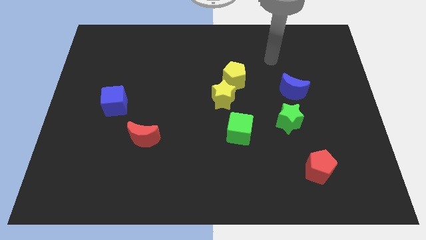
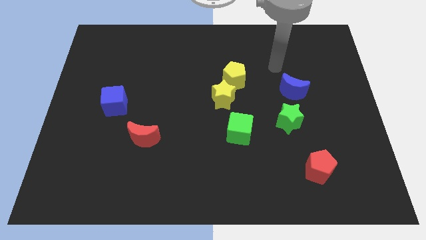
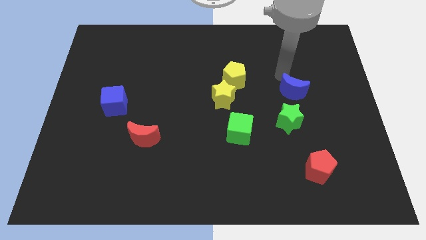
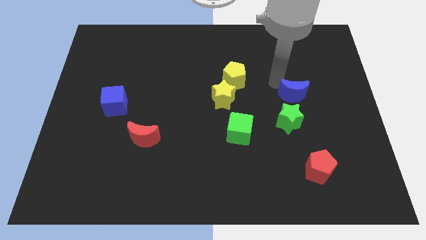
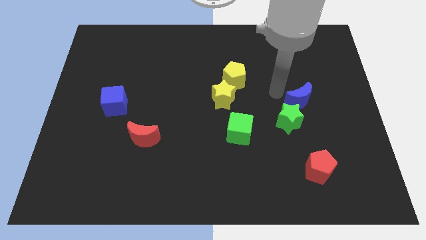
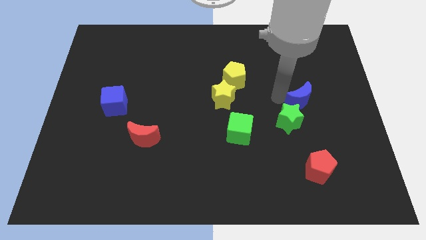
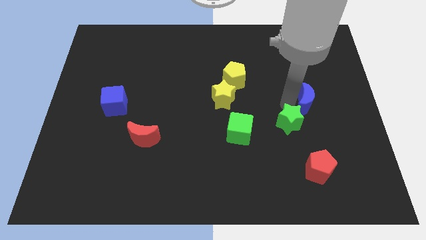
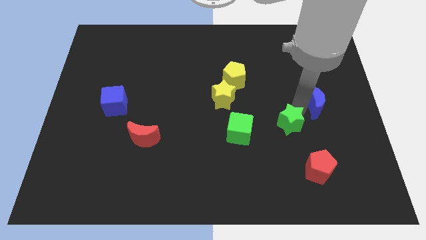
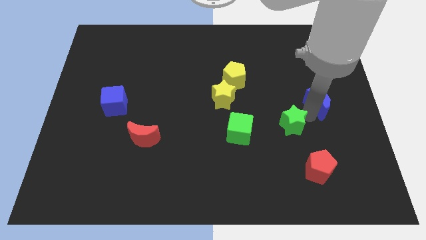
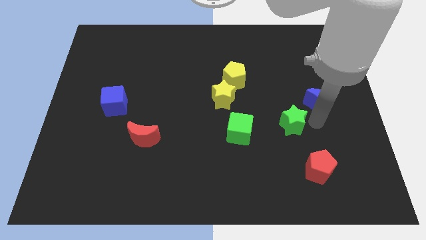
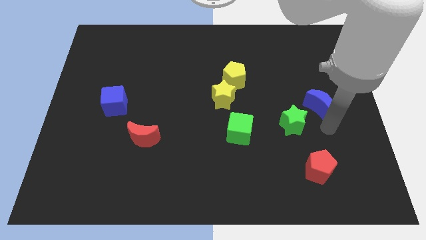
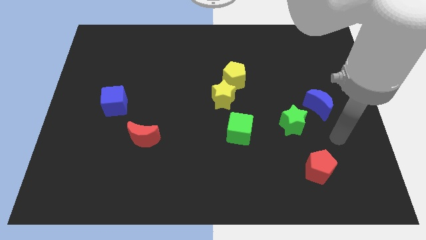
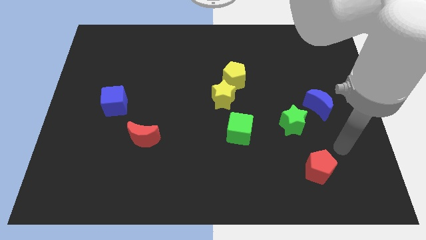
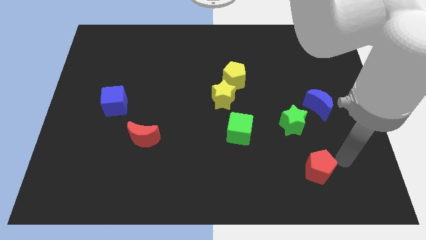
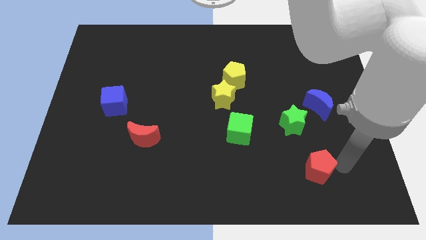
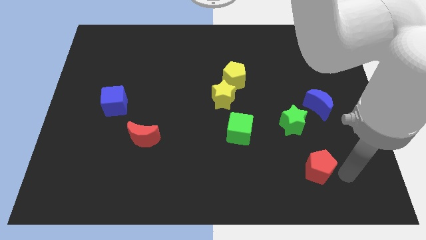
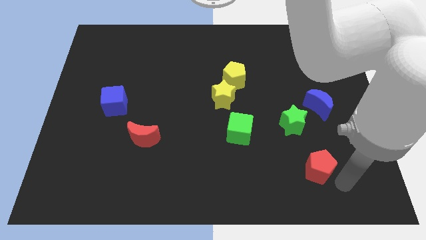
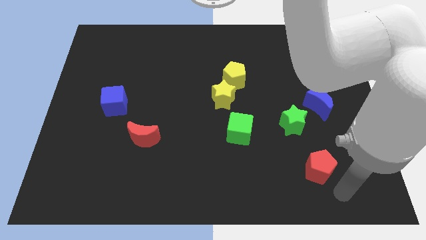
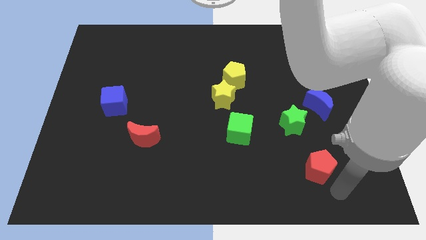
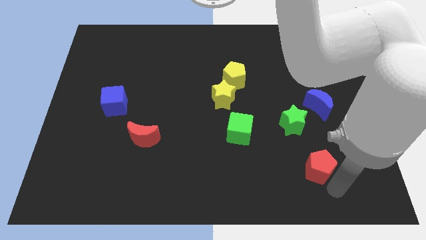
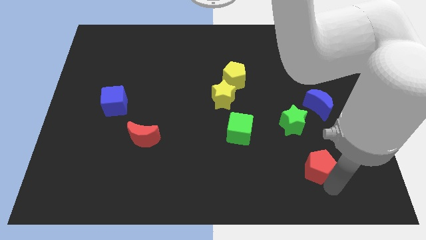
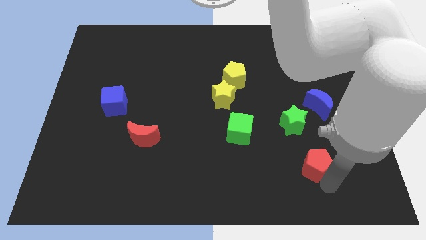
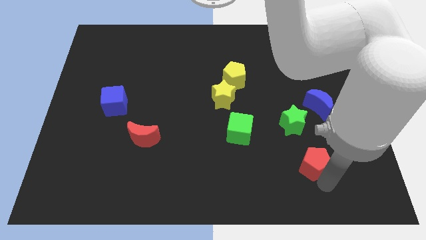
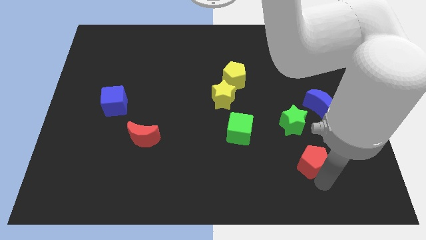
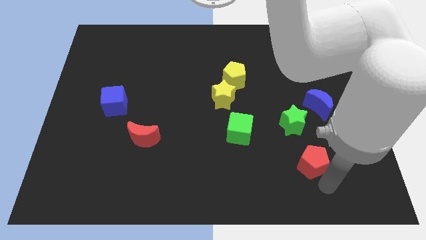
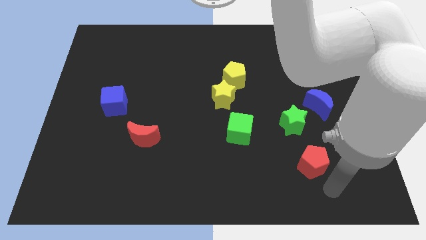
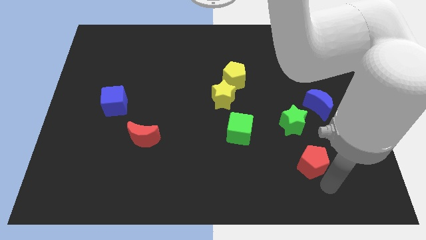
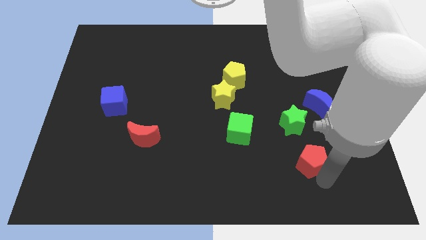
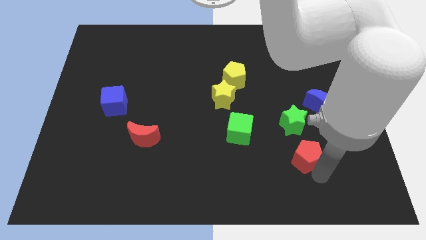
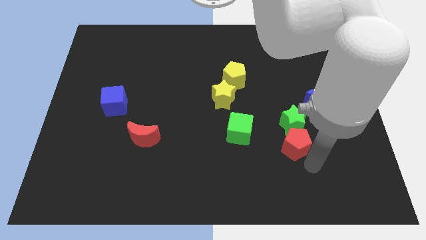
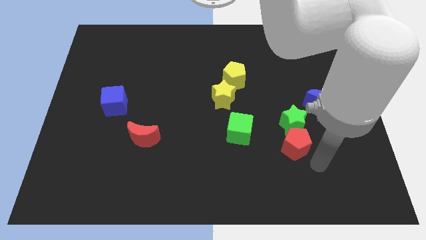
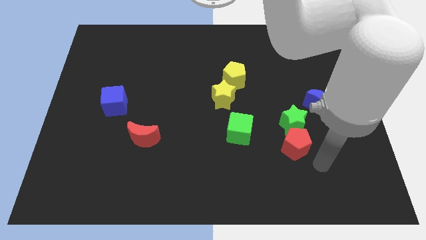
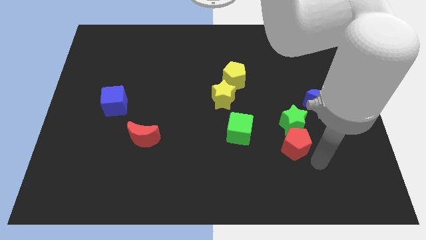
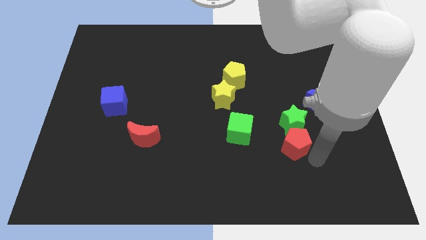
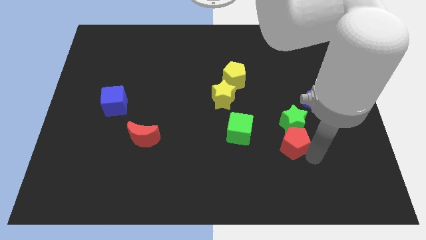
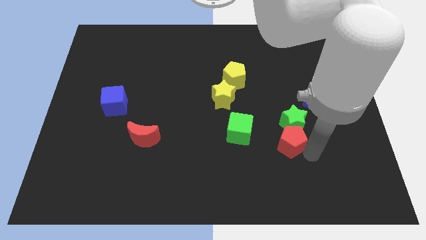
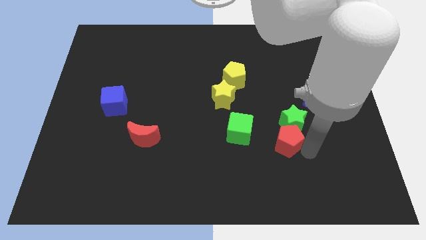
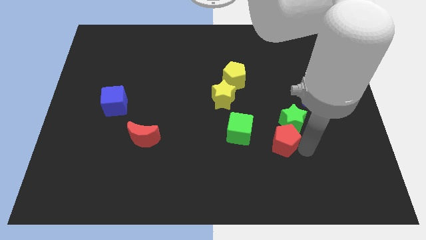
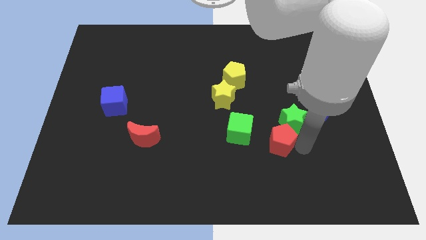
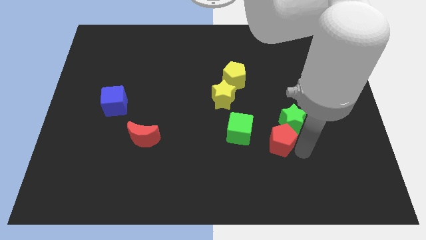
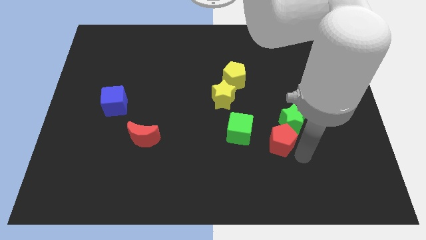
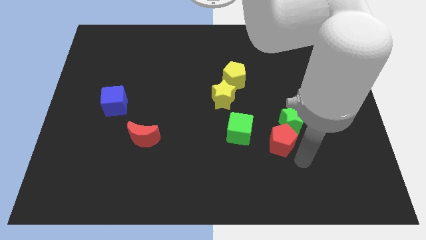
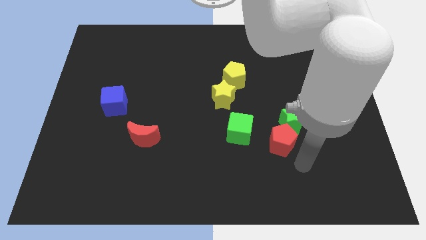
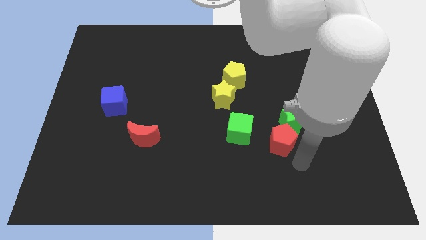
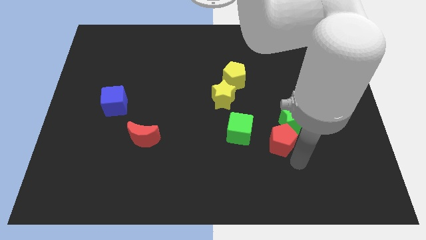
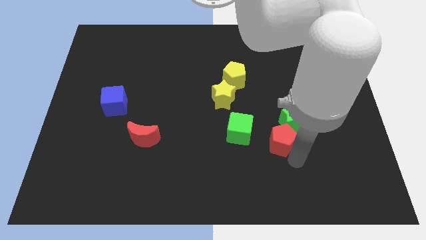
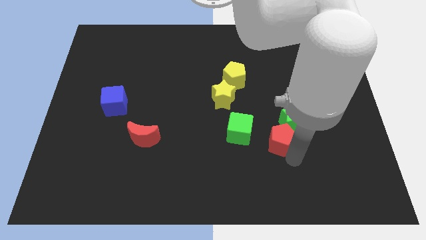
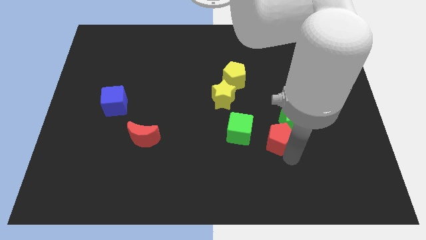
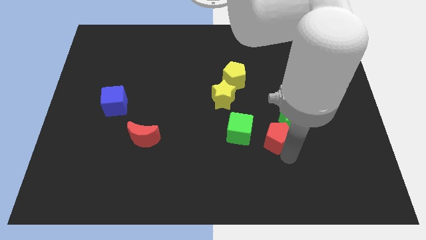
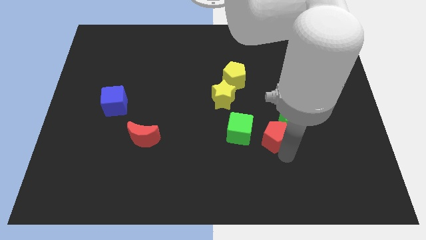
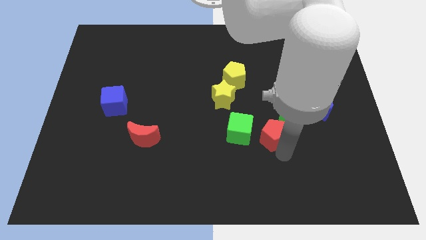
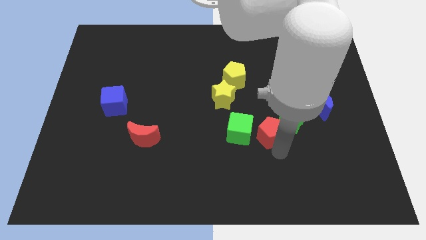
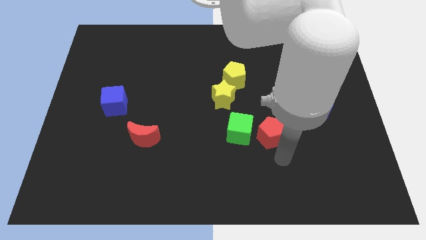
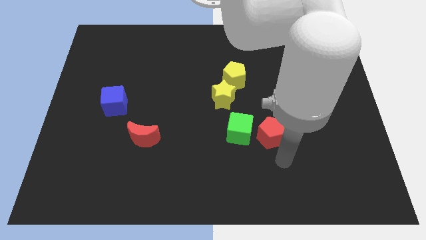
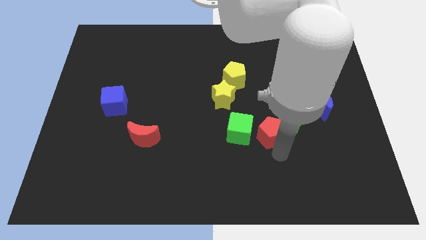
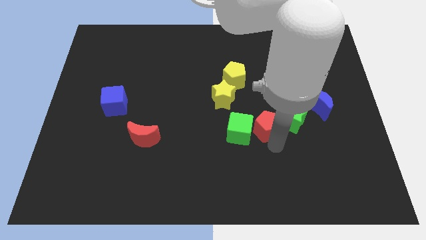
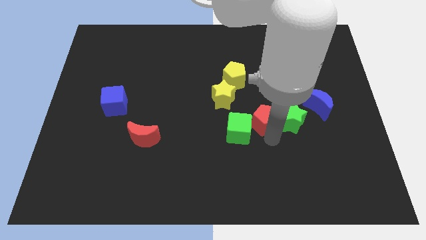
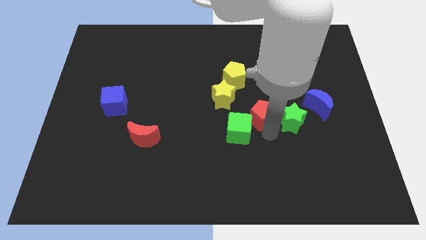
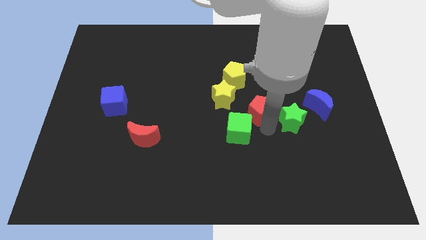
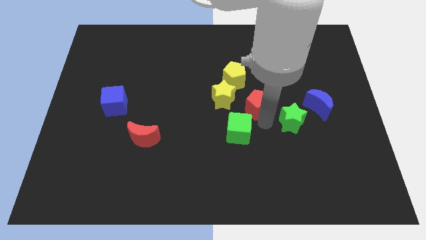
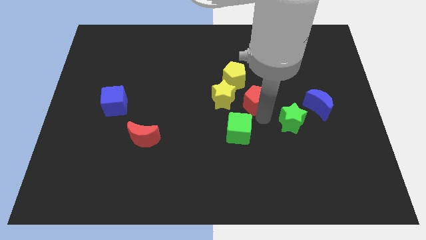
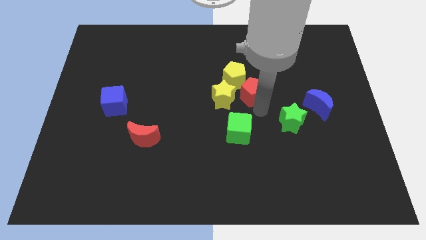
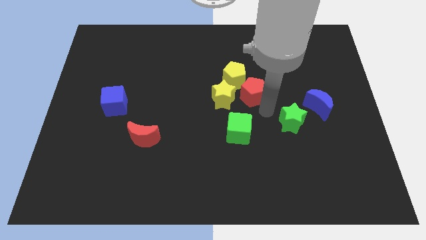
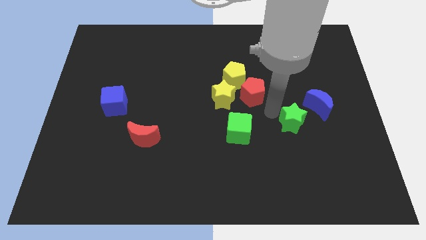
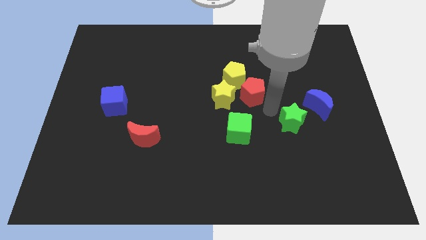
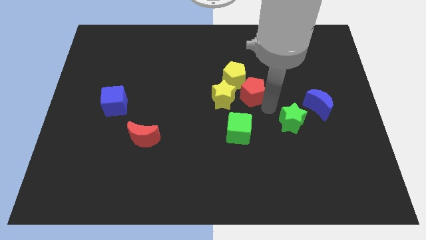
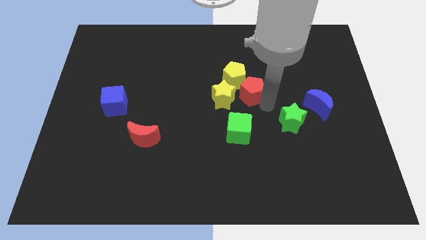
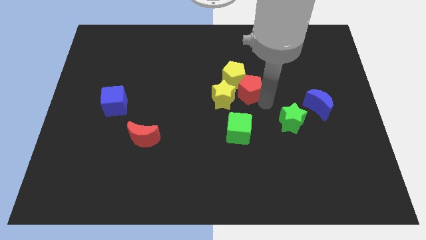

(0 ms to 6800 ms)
slide the red pentagon next to the yellow pentagon
